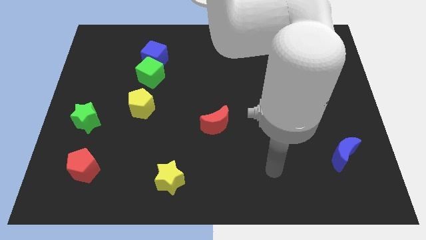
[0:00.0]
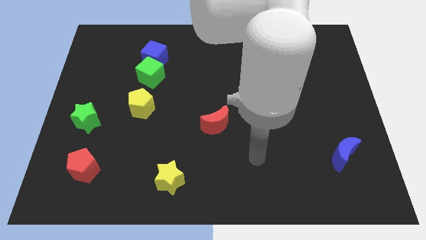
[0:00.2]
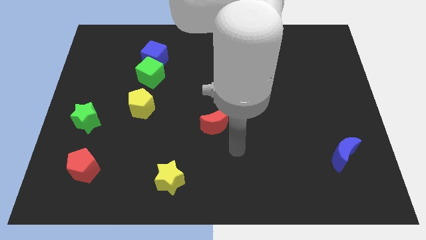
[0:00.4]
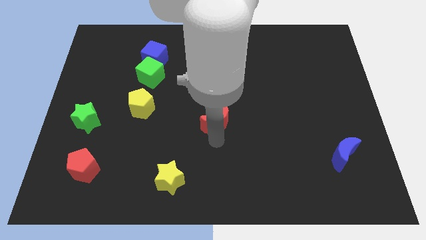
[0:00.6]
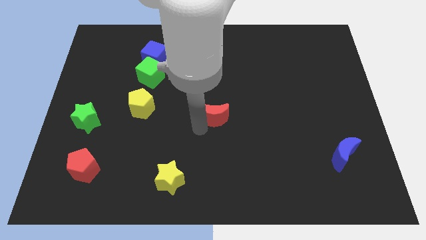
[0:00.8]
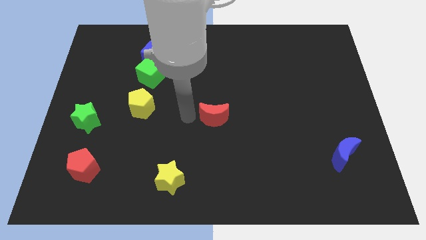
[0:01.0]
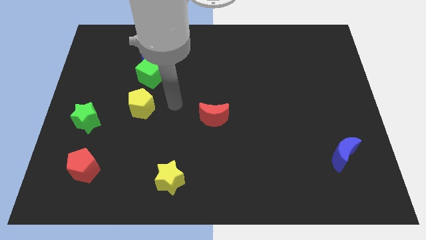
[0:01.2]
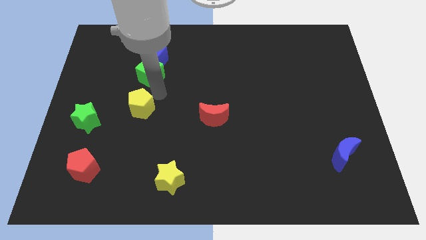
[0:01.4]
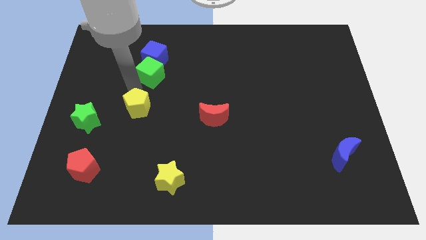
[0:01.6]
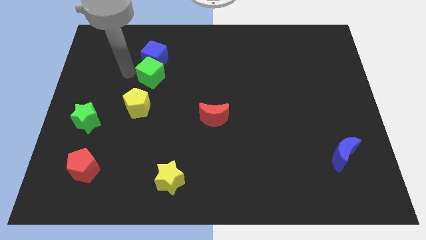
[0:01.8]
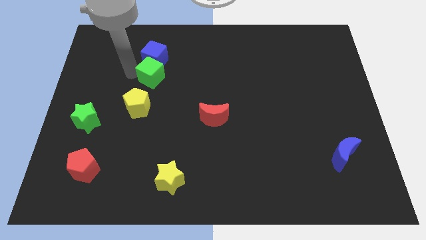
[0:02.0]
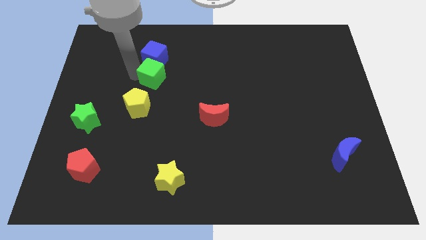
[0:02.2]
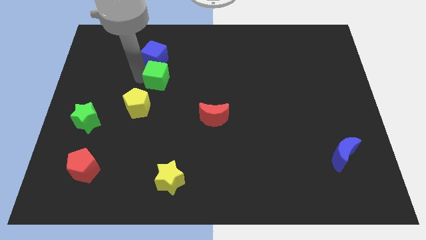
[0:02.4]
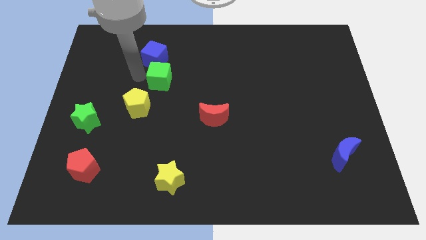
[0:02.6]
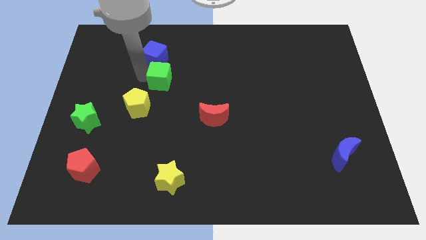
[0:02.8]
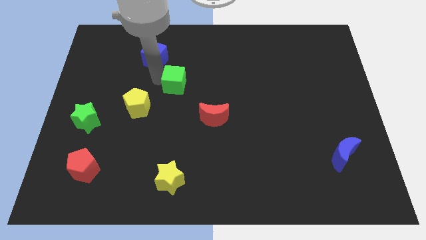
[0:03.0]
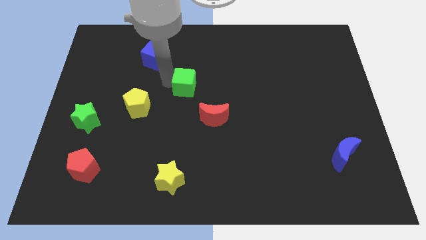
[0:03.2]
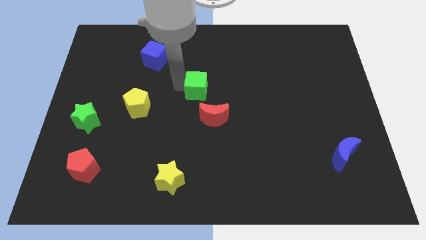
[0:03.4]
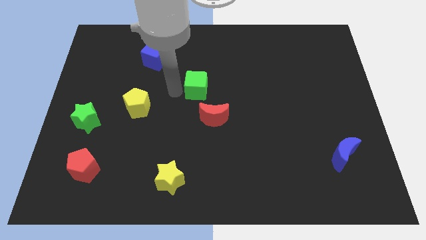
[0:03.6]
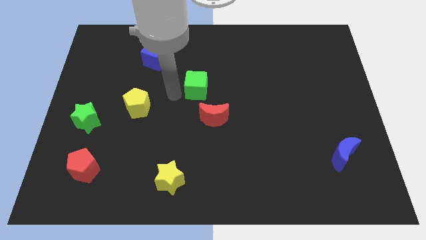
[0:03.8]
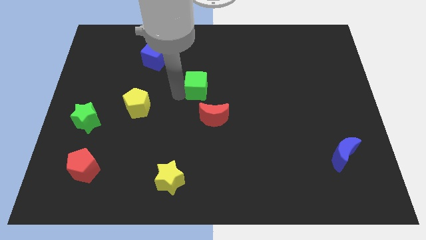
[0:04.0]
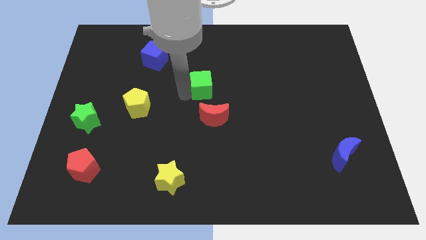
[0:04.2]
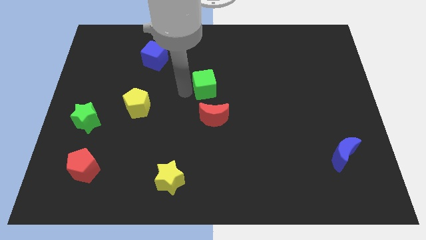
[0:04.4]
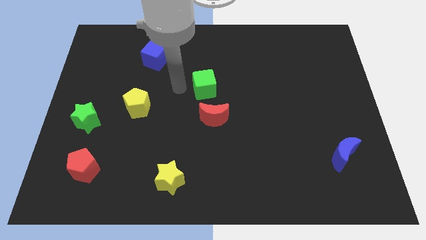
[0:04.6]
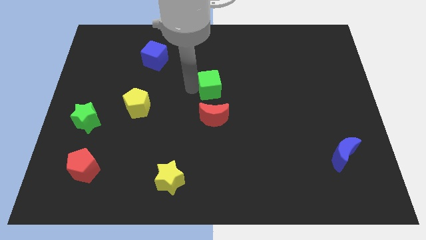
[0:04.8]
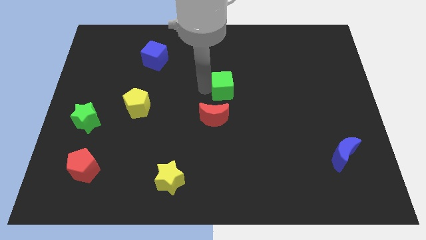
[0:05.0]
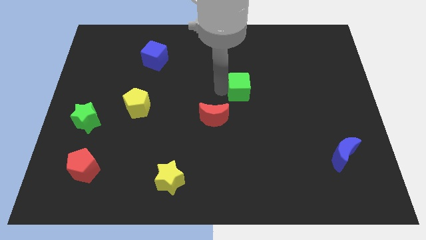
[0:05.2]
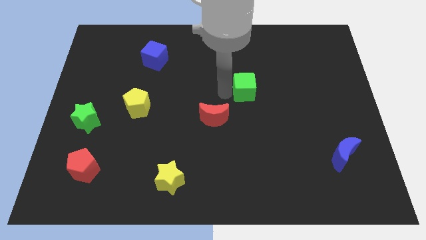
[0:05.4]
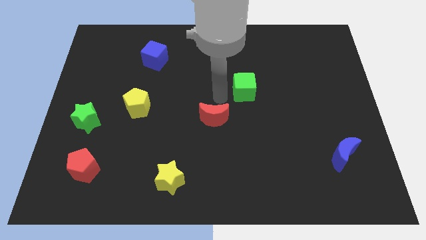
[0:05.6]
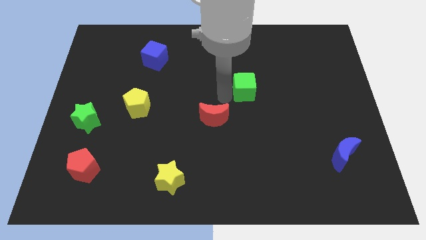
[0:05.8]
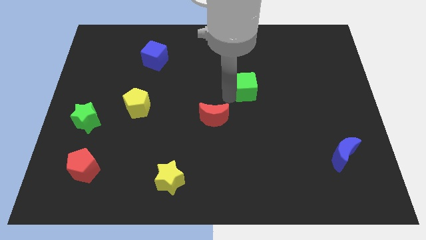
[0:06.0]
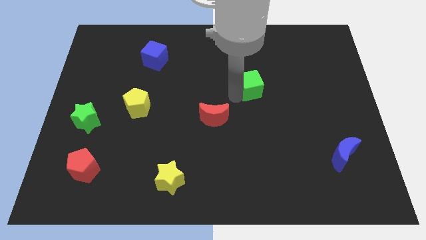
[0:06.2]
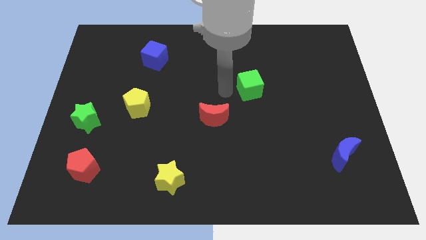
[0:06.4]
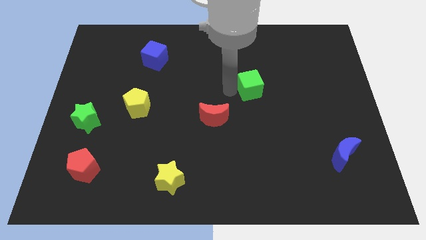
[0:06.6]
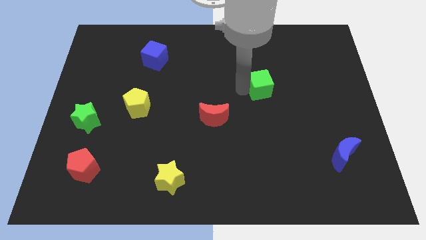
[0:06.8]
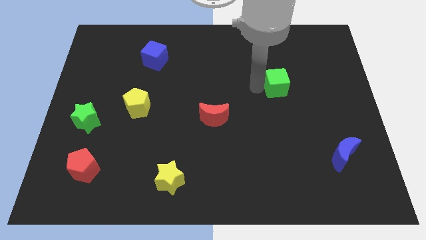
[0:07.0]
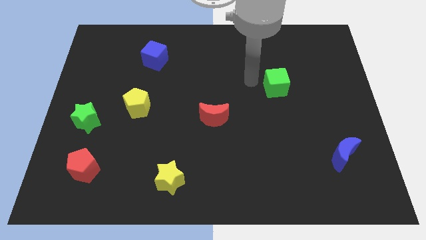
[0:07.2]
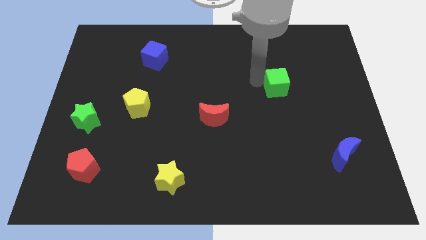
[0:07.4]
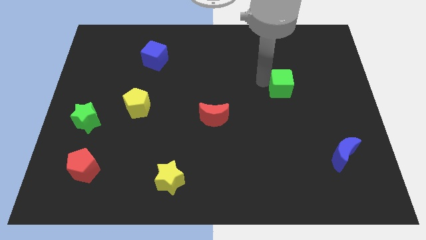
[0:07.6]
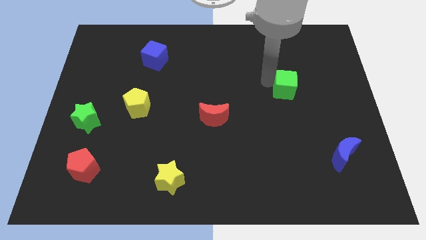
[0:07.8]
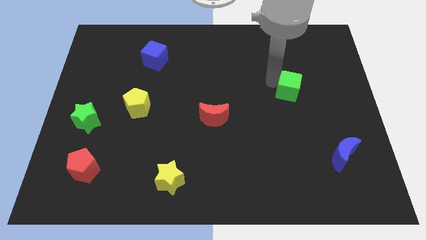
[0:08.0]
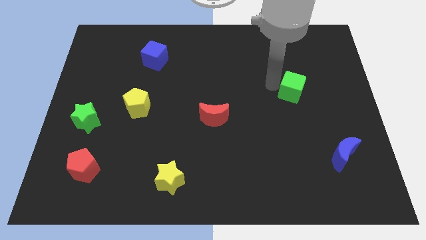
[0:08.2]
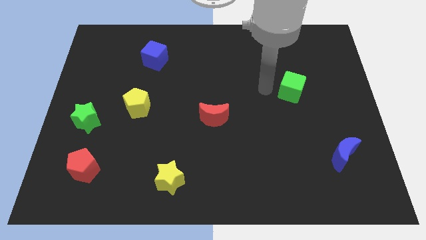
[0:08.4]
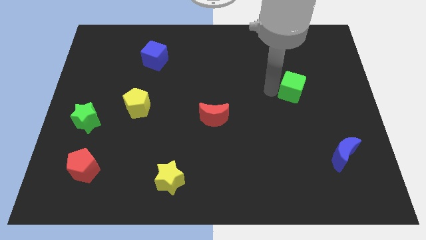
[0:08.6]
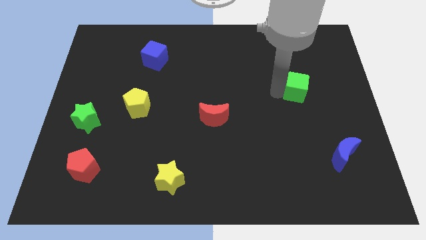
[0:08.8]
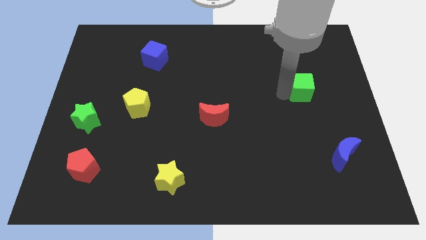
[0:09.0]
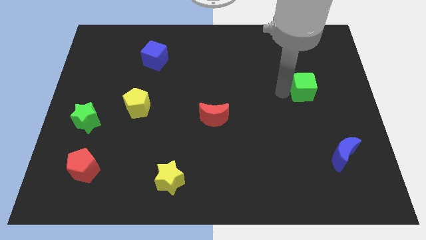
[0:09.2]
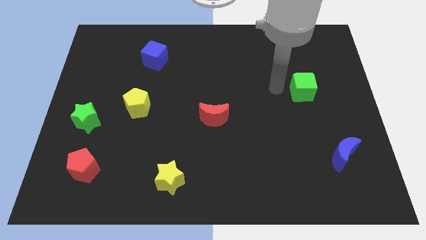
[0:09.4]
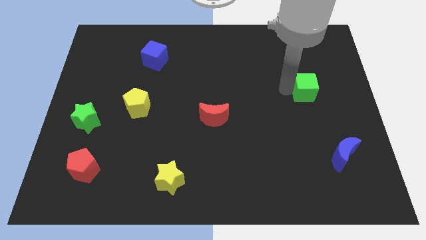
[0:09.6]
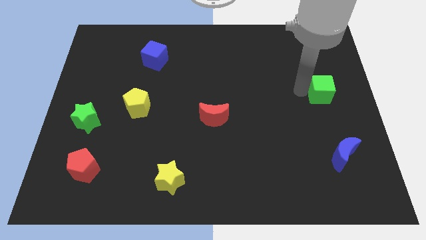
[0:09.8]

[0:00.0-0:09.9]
push the green cube to the center right

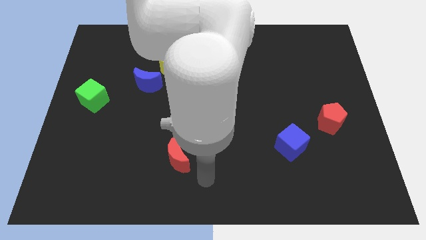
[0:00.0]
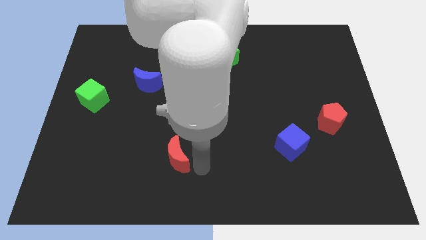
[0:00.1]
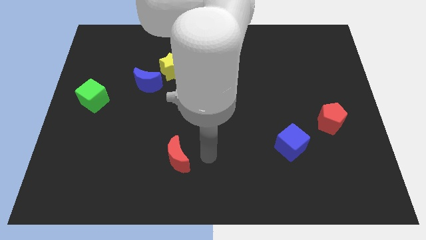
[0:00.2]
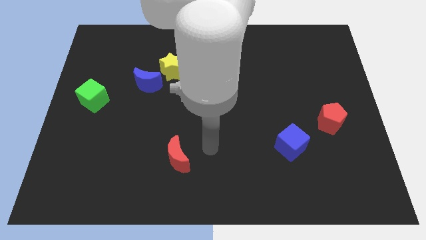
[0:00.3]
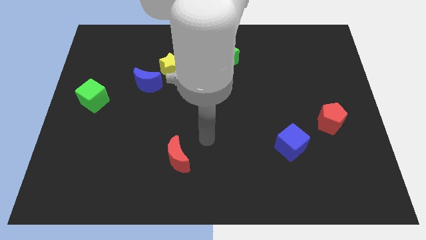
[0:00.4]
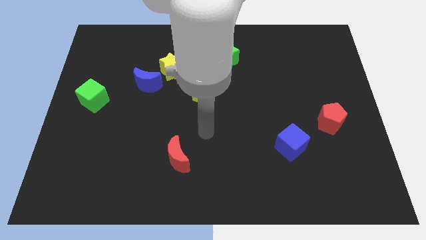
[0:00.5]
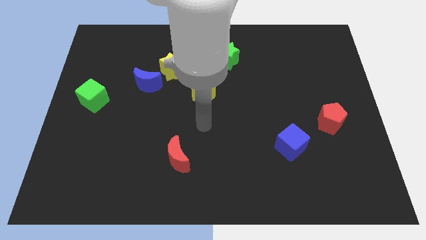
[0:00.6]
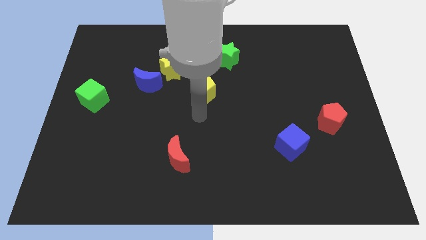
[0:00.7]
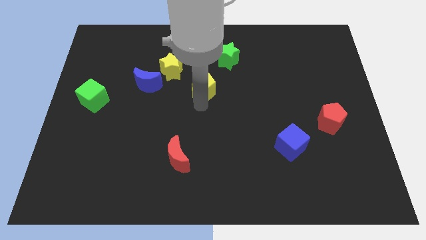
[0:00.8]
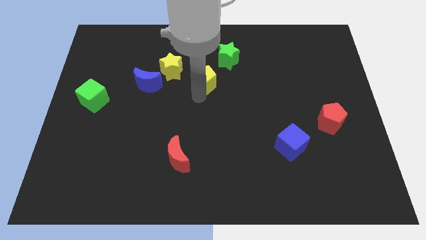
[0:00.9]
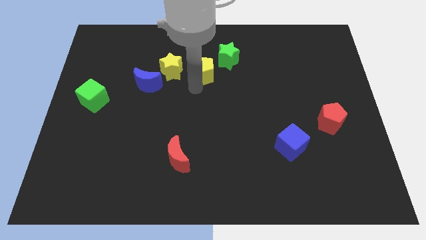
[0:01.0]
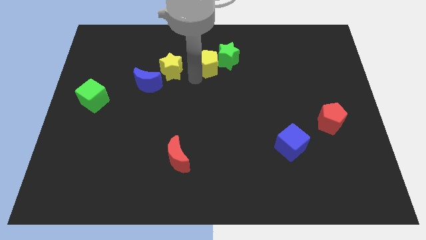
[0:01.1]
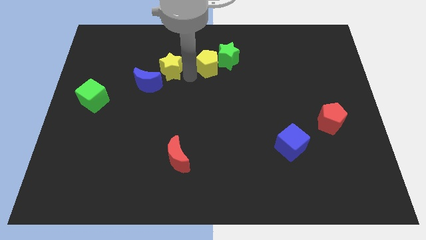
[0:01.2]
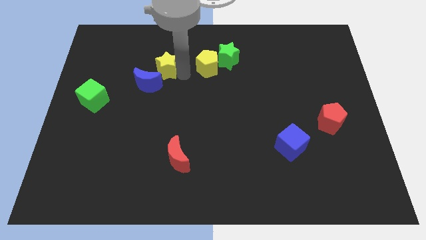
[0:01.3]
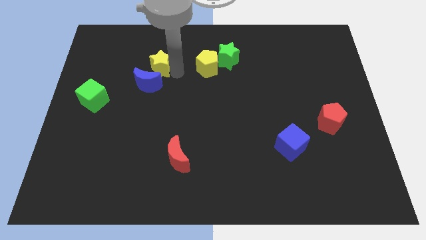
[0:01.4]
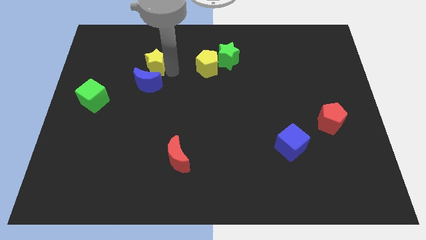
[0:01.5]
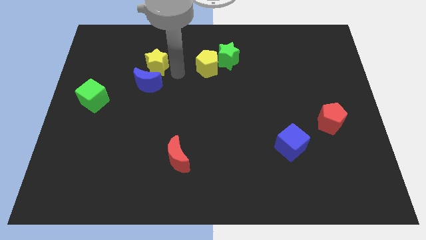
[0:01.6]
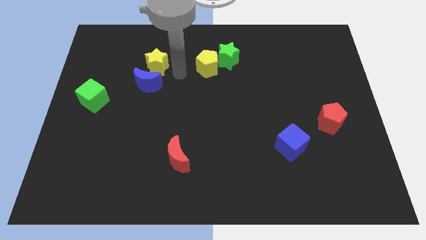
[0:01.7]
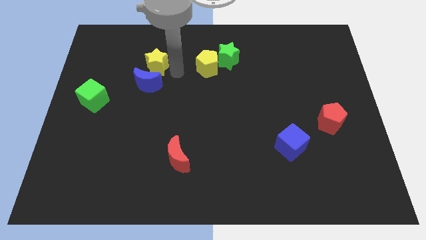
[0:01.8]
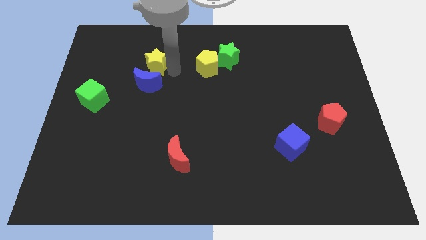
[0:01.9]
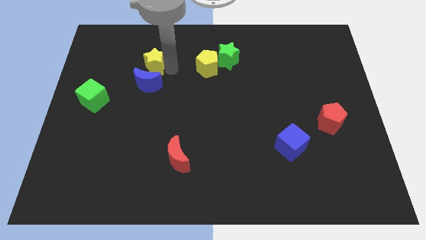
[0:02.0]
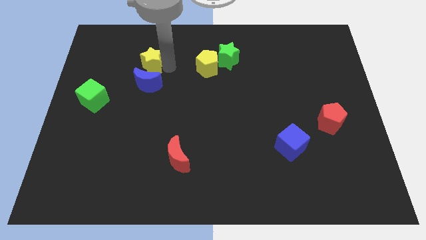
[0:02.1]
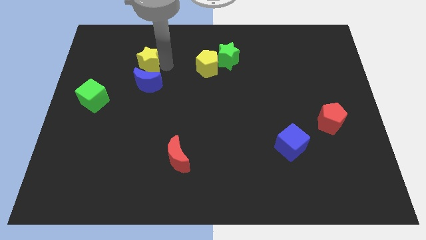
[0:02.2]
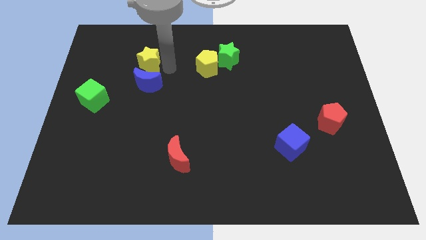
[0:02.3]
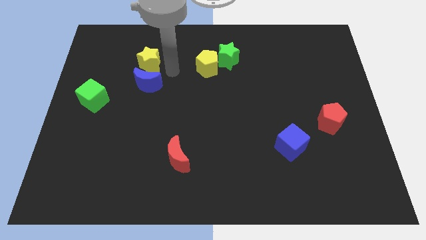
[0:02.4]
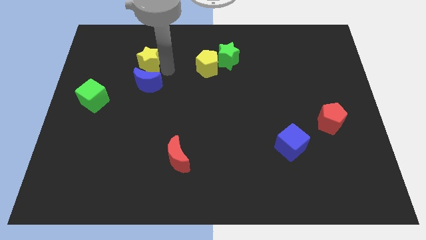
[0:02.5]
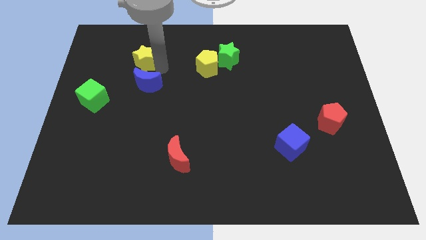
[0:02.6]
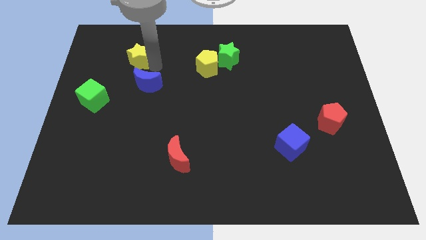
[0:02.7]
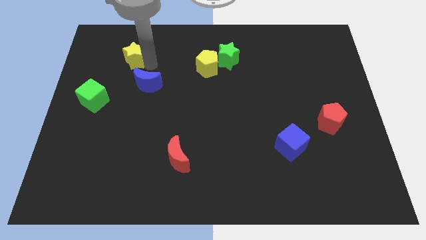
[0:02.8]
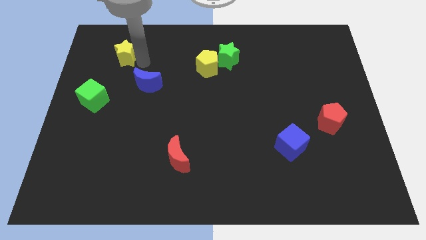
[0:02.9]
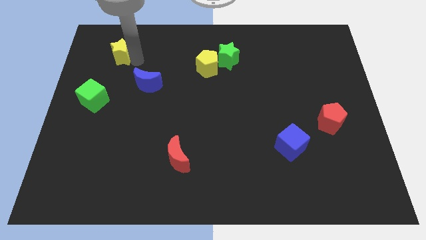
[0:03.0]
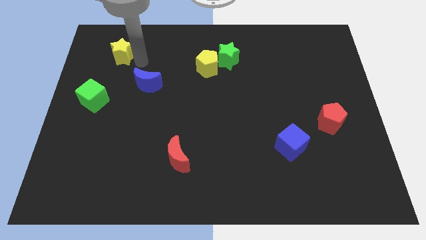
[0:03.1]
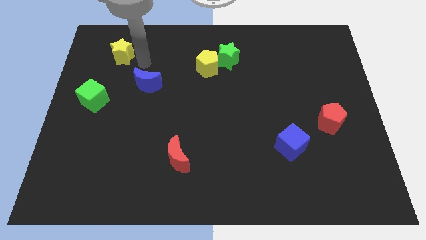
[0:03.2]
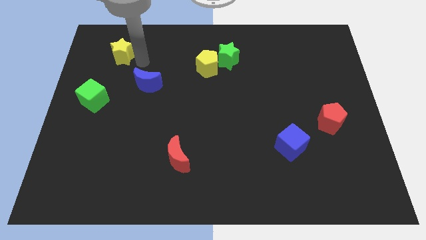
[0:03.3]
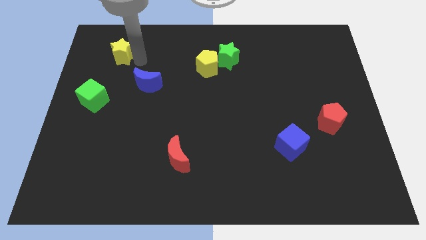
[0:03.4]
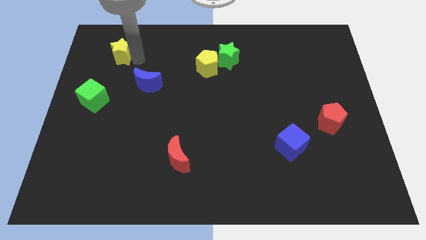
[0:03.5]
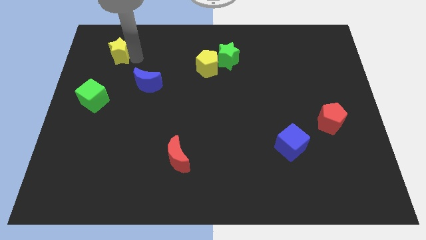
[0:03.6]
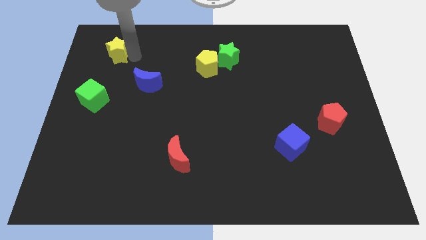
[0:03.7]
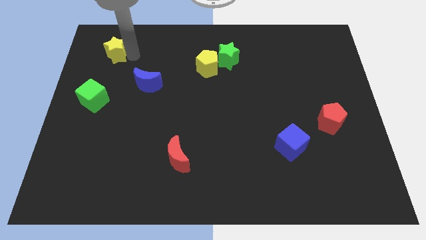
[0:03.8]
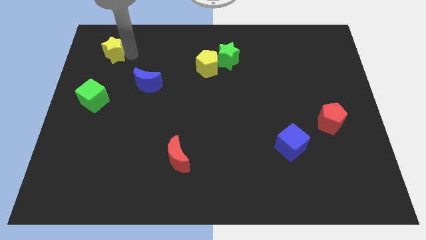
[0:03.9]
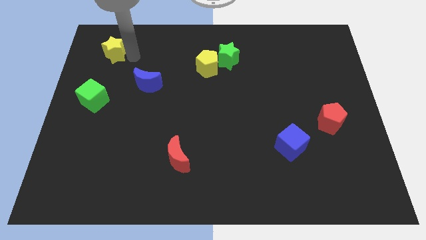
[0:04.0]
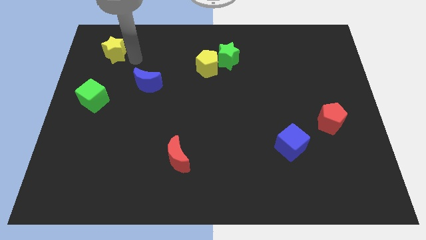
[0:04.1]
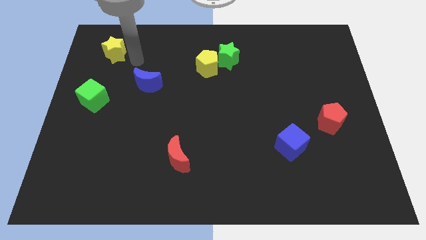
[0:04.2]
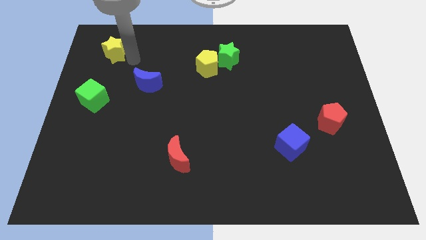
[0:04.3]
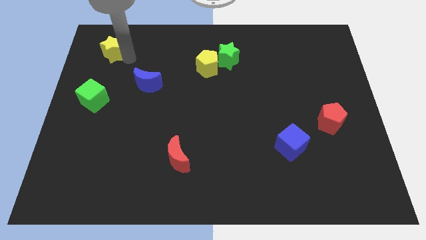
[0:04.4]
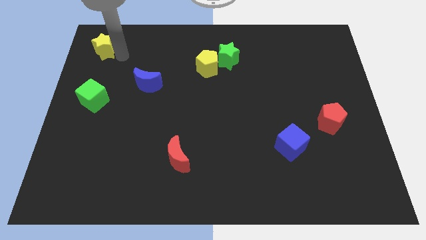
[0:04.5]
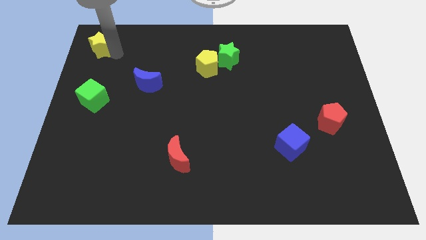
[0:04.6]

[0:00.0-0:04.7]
move the yellow star to the top left of the board
